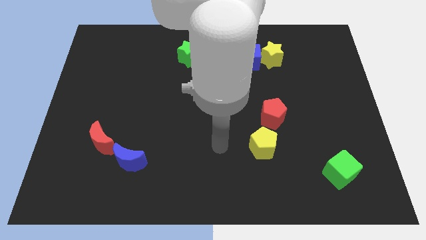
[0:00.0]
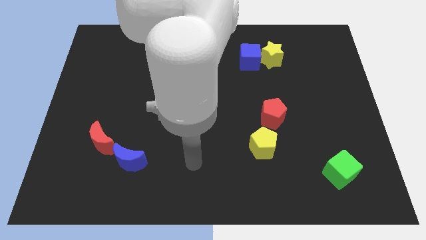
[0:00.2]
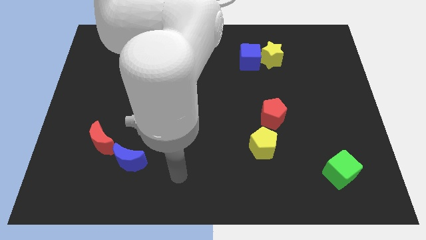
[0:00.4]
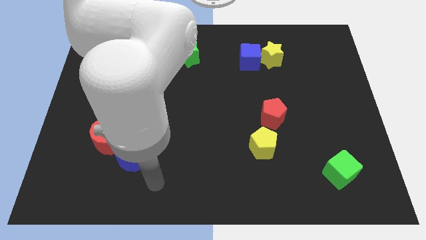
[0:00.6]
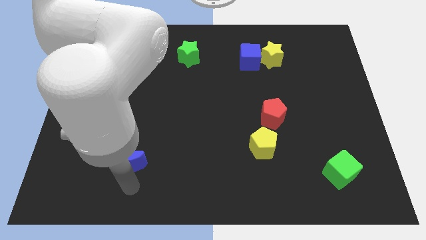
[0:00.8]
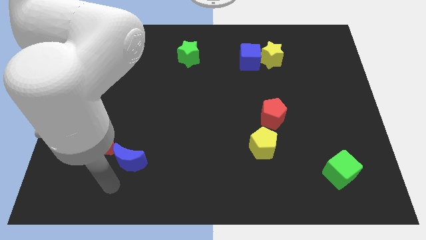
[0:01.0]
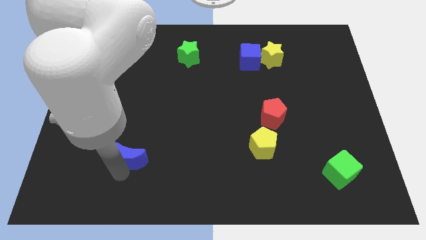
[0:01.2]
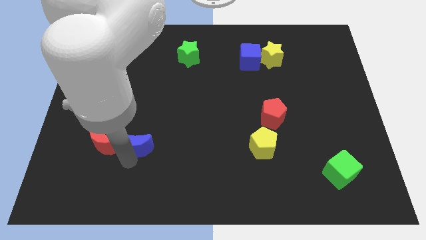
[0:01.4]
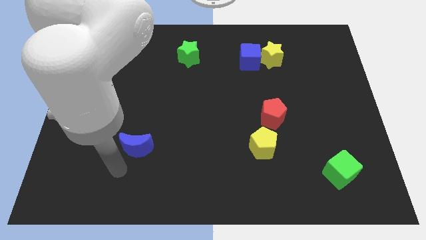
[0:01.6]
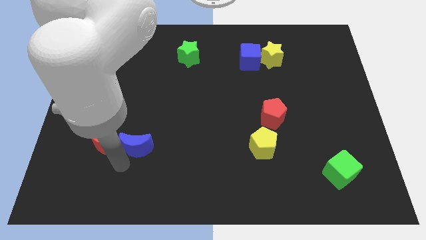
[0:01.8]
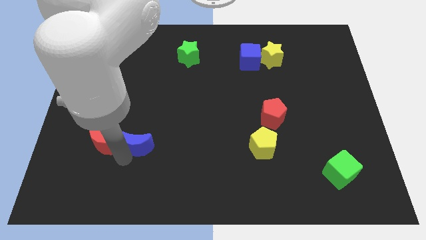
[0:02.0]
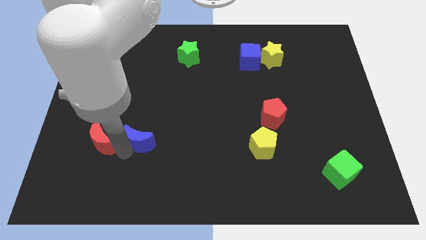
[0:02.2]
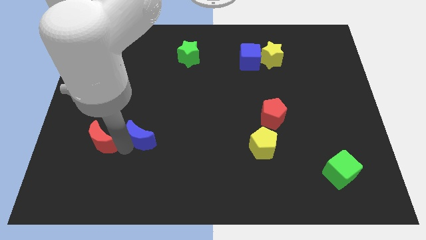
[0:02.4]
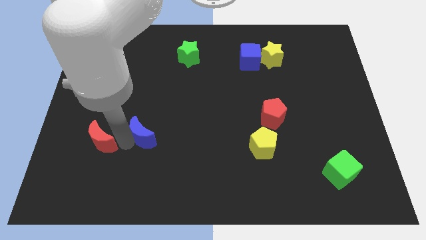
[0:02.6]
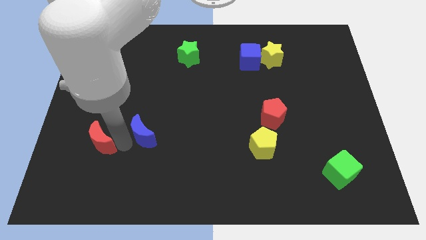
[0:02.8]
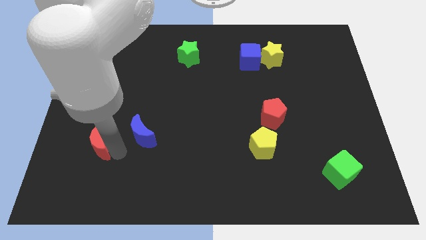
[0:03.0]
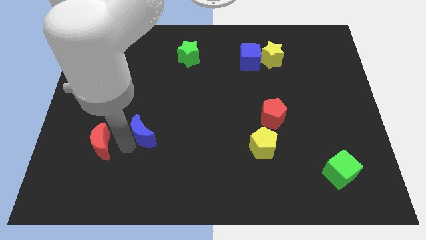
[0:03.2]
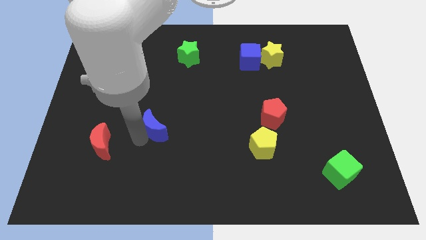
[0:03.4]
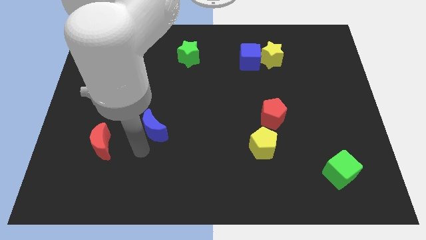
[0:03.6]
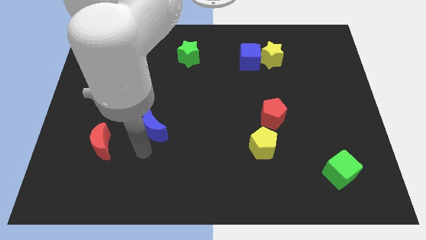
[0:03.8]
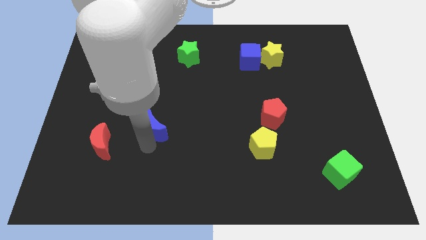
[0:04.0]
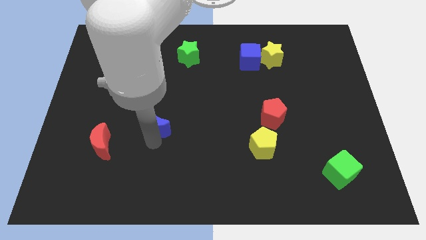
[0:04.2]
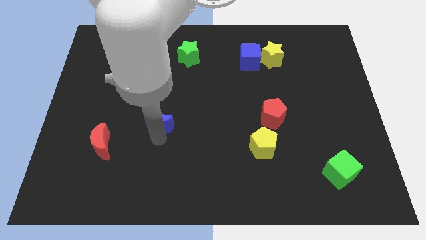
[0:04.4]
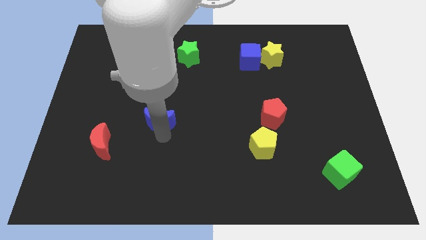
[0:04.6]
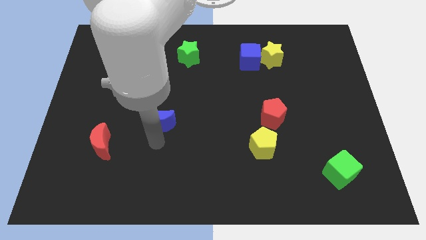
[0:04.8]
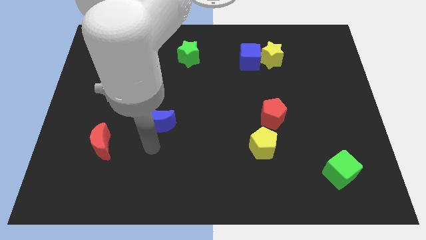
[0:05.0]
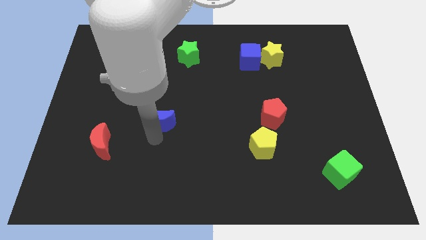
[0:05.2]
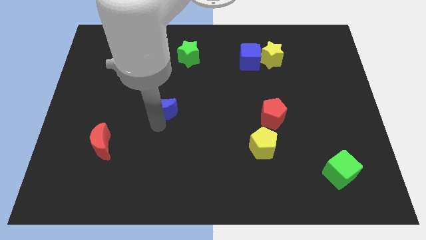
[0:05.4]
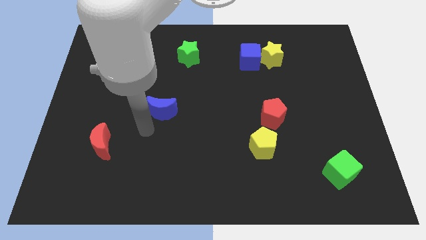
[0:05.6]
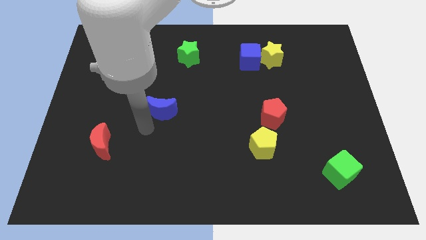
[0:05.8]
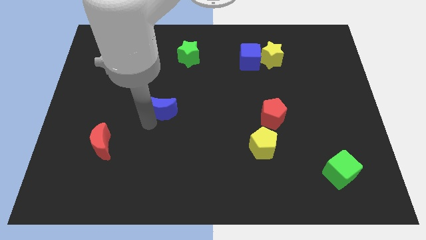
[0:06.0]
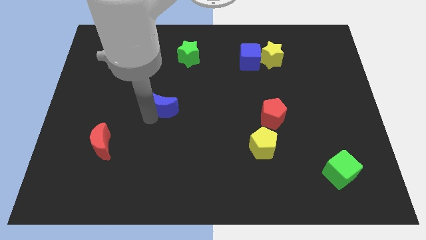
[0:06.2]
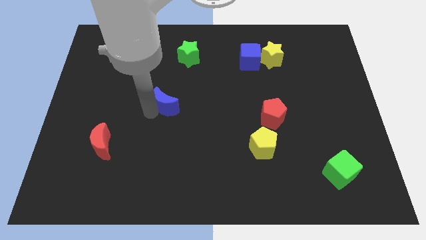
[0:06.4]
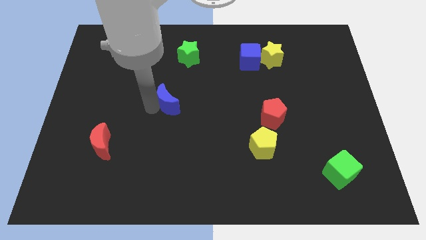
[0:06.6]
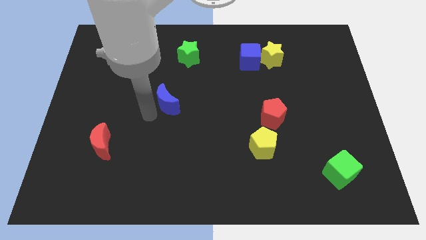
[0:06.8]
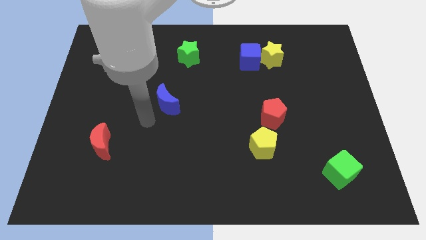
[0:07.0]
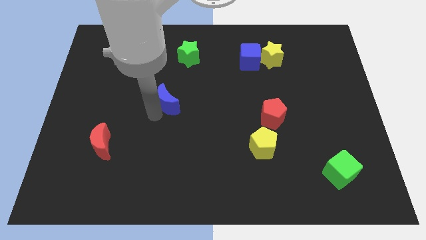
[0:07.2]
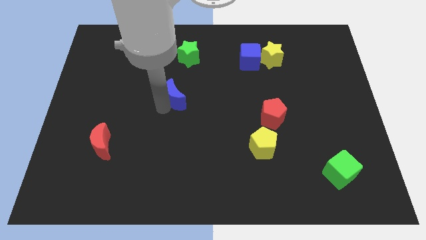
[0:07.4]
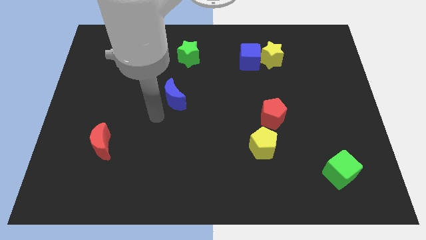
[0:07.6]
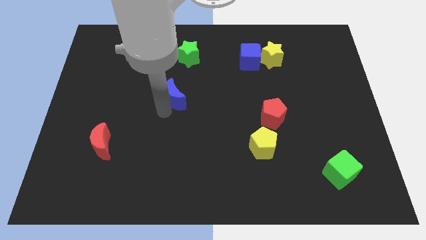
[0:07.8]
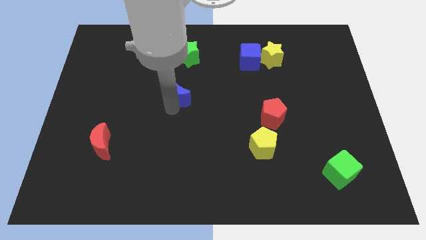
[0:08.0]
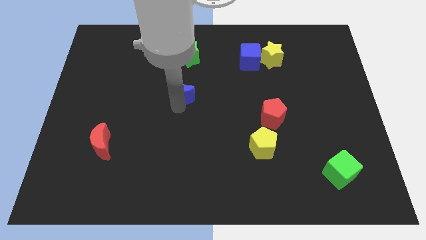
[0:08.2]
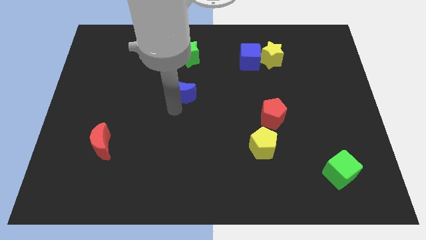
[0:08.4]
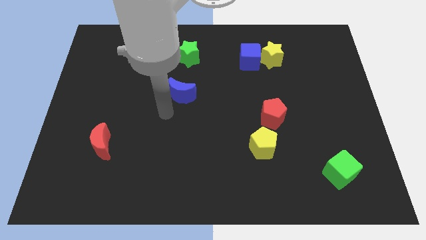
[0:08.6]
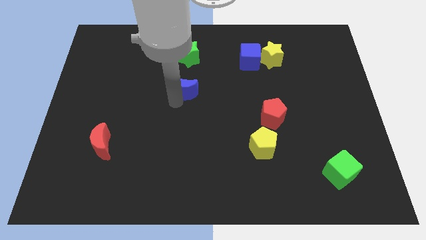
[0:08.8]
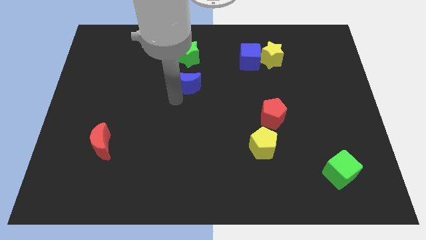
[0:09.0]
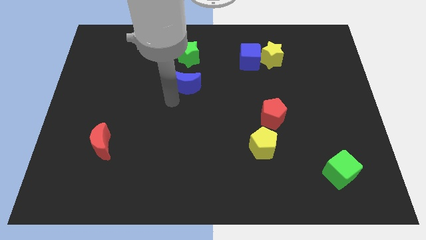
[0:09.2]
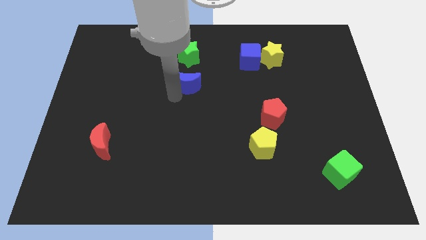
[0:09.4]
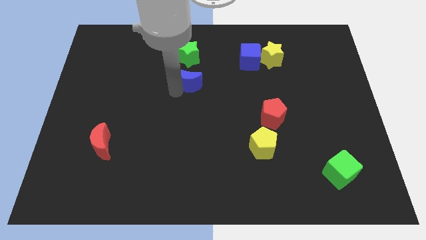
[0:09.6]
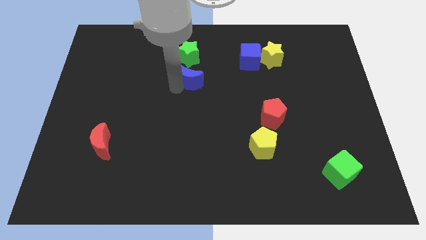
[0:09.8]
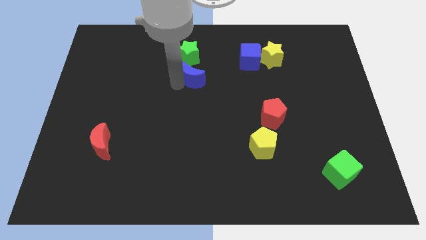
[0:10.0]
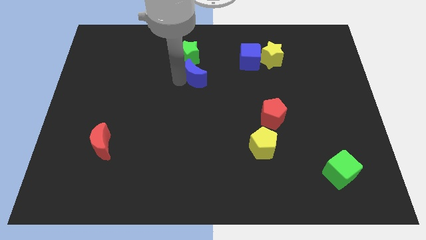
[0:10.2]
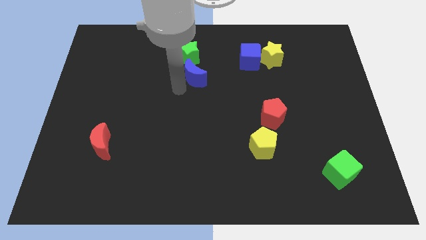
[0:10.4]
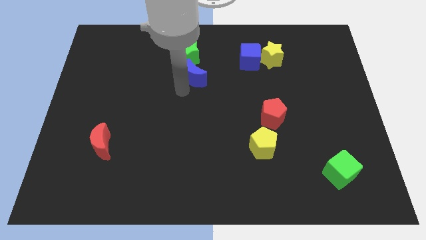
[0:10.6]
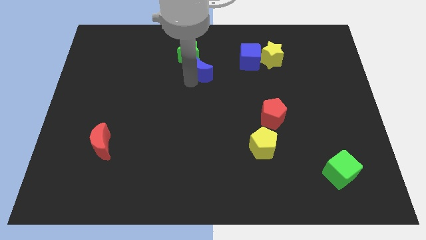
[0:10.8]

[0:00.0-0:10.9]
push the blue moon just left of the blue cube

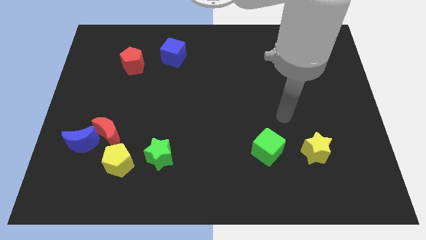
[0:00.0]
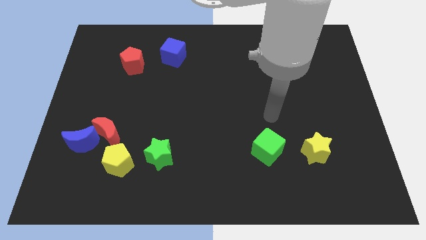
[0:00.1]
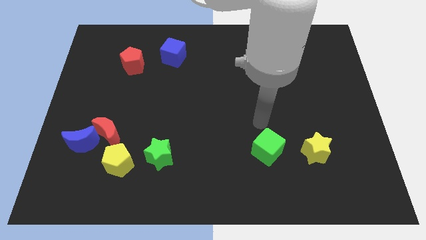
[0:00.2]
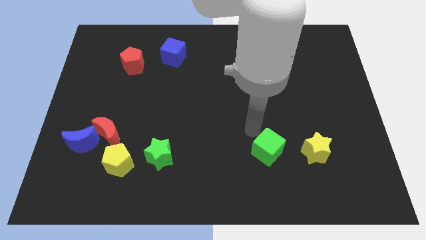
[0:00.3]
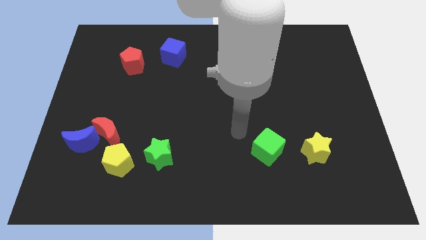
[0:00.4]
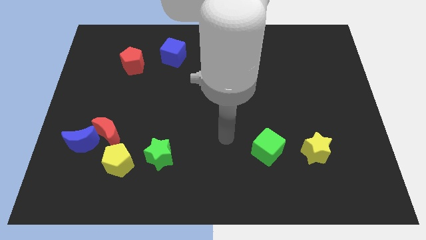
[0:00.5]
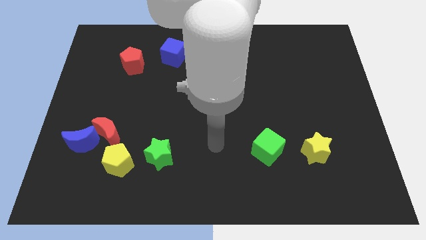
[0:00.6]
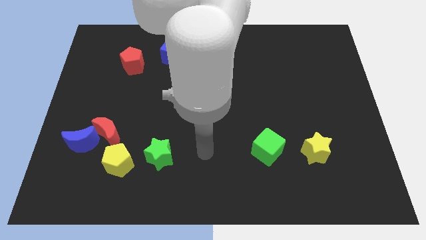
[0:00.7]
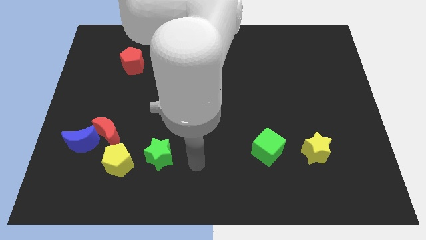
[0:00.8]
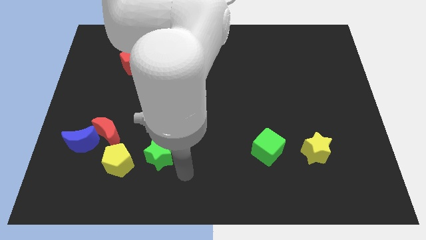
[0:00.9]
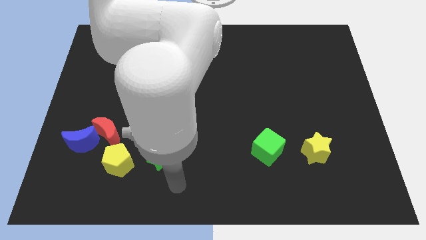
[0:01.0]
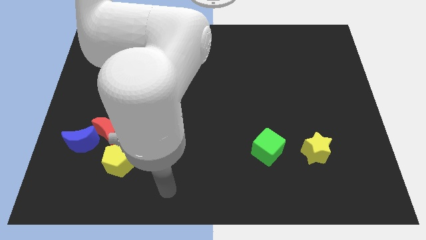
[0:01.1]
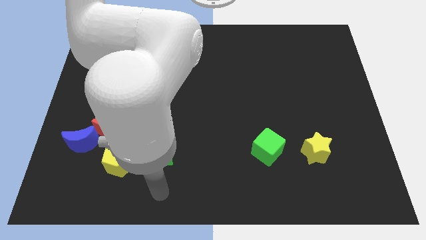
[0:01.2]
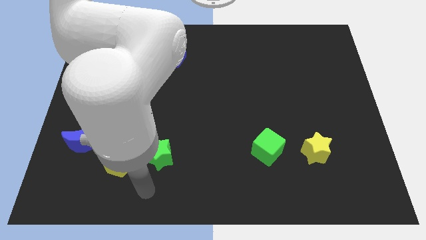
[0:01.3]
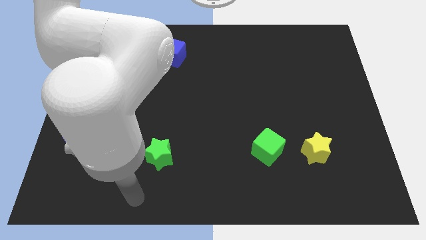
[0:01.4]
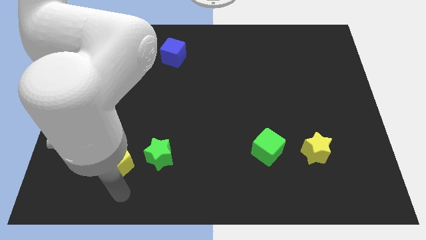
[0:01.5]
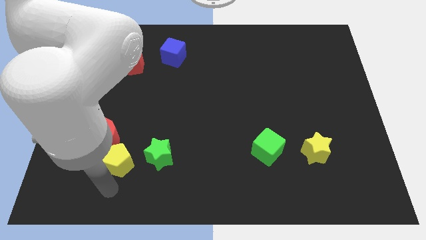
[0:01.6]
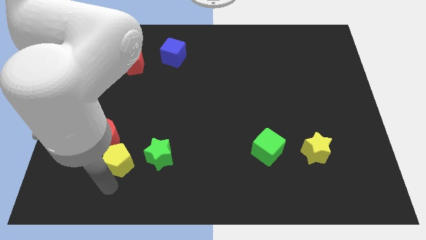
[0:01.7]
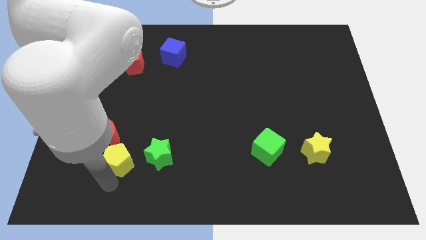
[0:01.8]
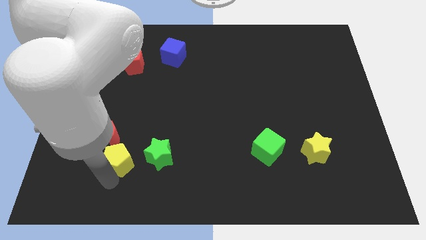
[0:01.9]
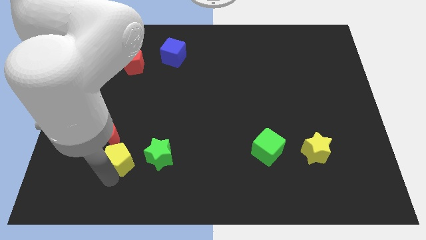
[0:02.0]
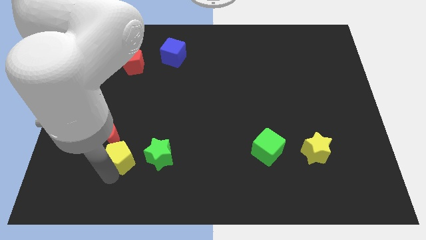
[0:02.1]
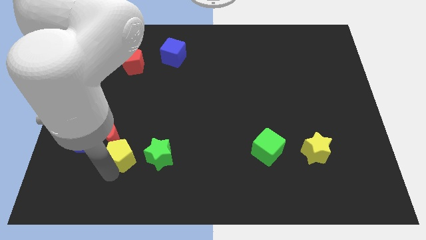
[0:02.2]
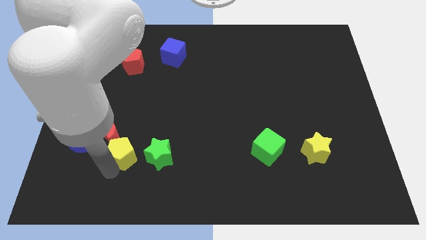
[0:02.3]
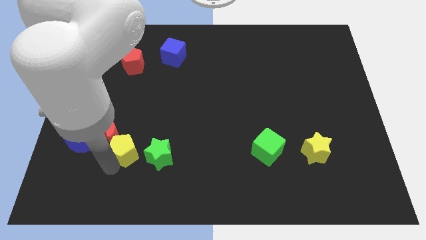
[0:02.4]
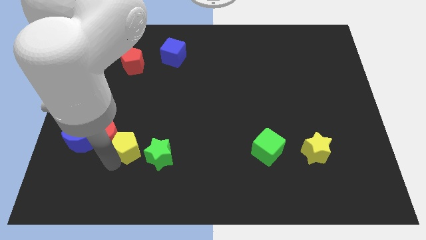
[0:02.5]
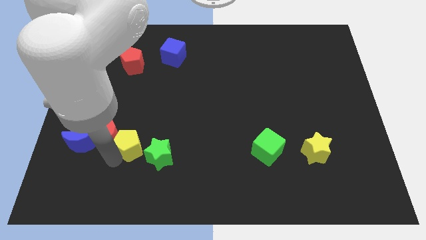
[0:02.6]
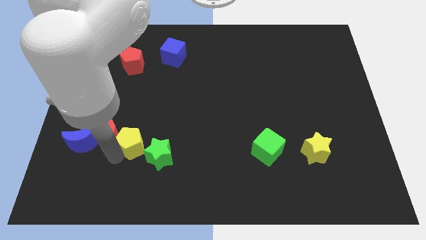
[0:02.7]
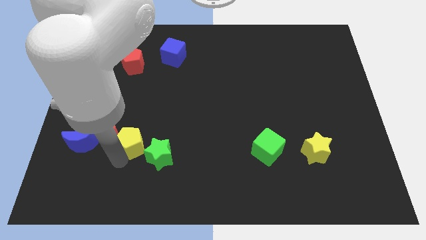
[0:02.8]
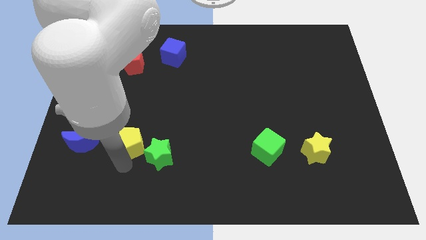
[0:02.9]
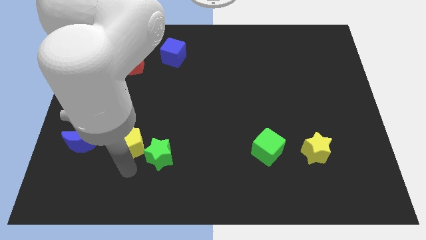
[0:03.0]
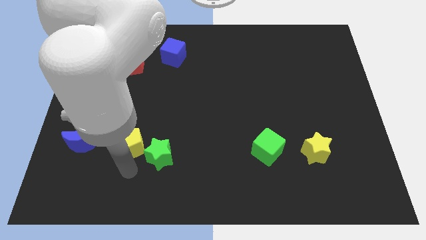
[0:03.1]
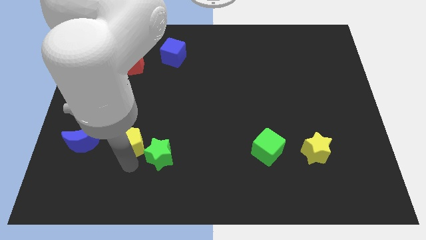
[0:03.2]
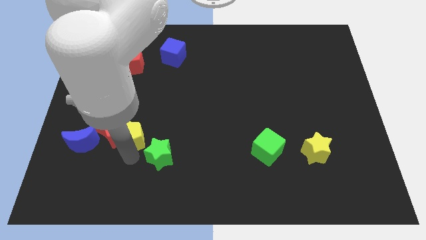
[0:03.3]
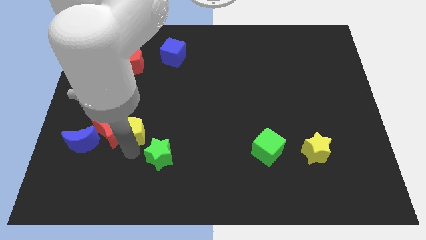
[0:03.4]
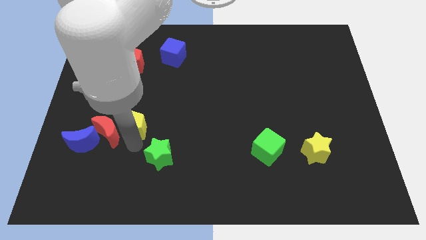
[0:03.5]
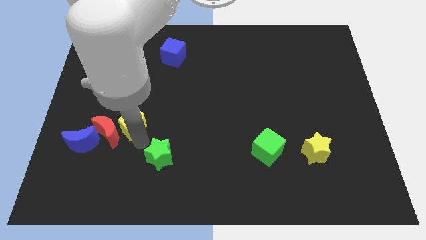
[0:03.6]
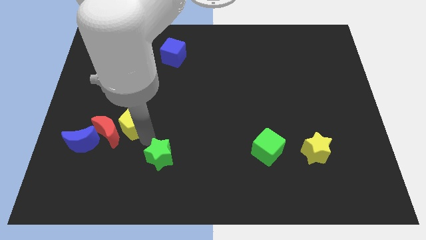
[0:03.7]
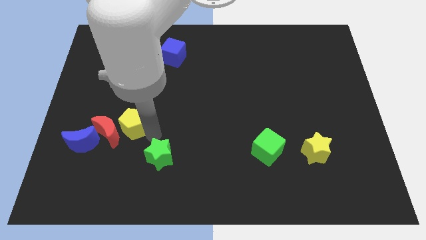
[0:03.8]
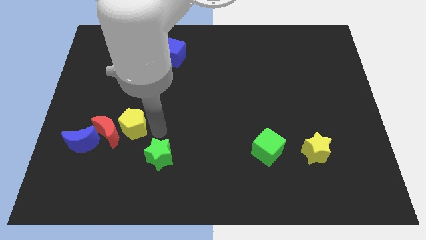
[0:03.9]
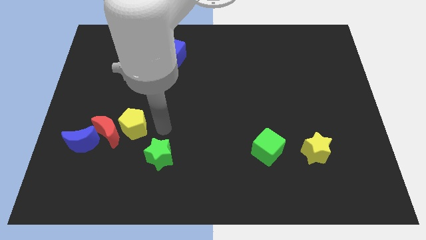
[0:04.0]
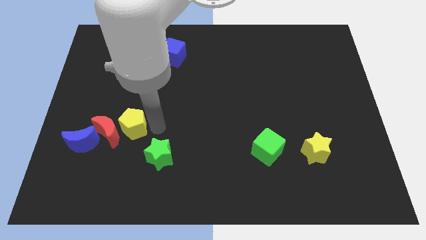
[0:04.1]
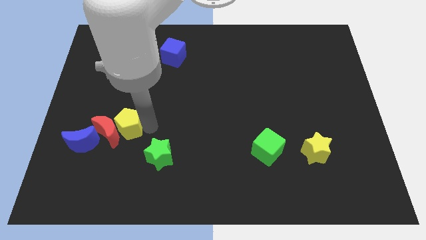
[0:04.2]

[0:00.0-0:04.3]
put the yellow pentagon to the top right of the blue moon
